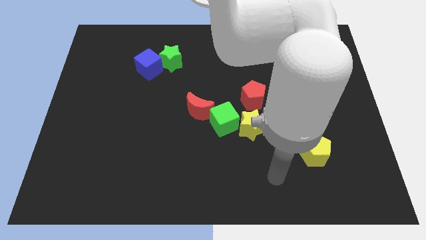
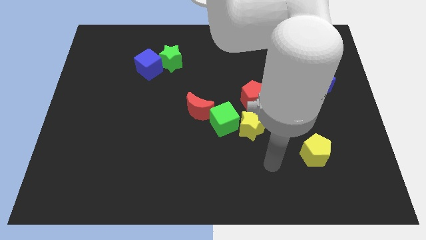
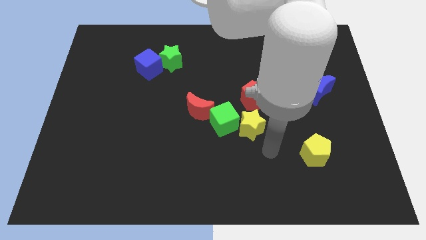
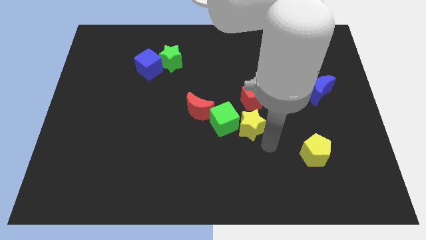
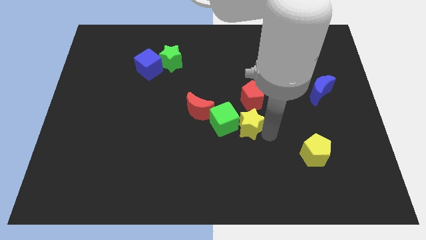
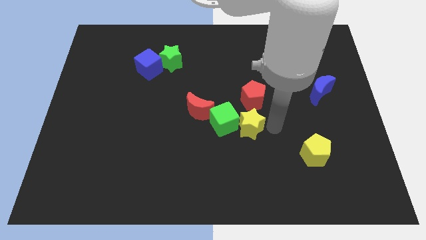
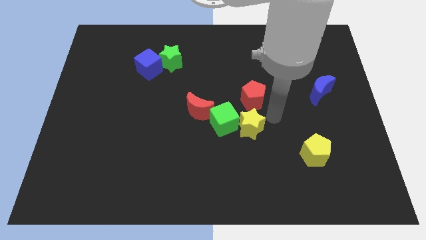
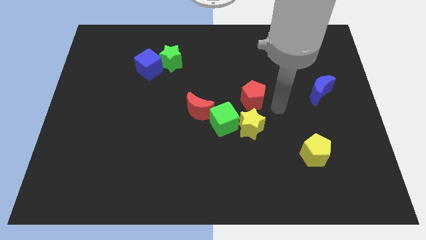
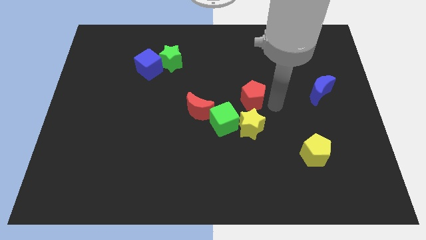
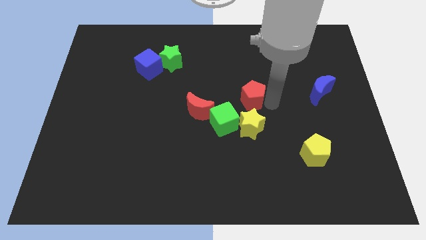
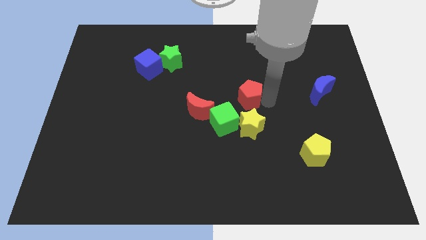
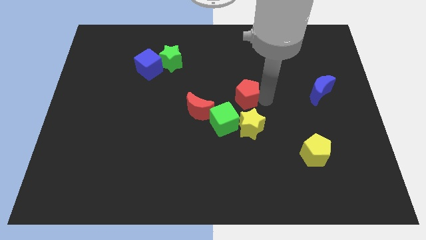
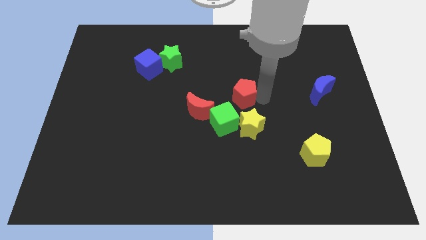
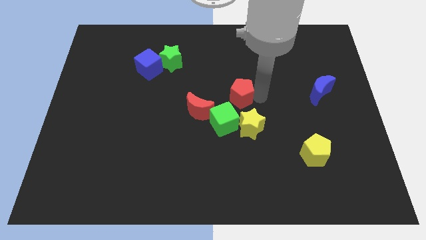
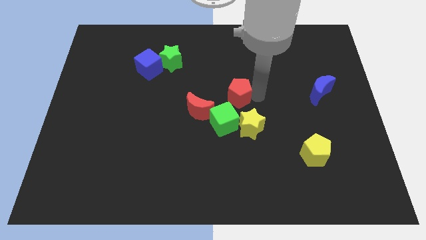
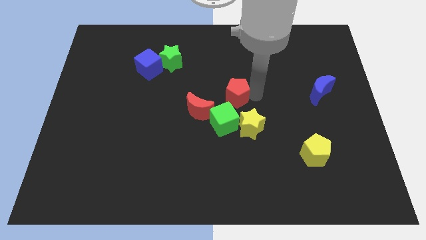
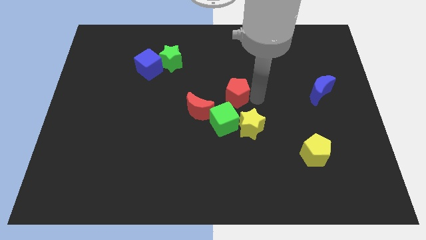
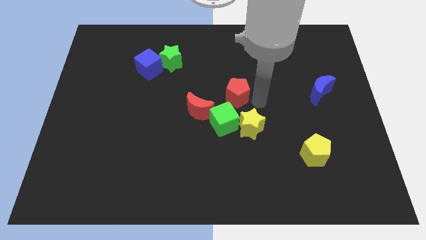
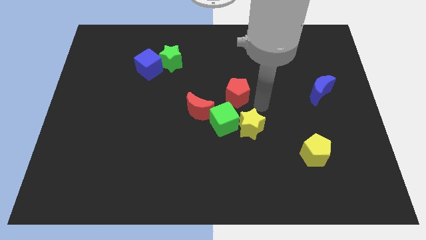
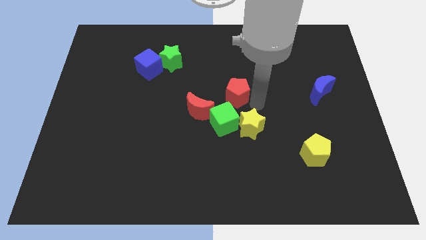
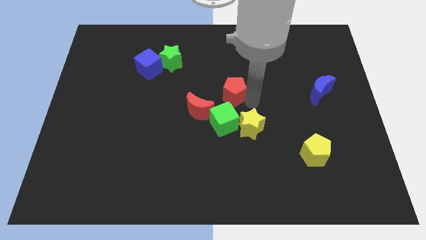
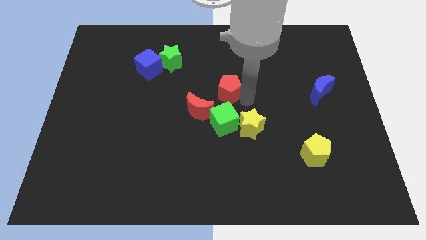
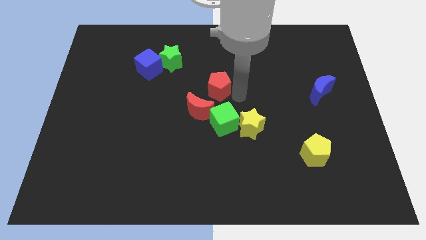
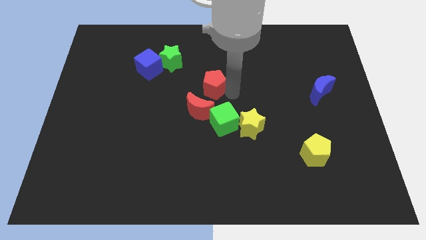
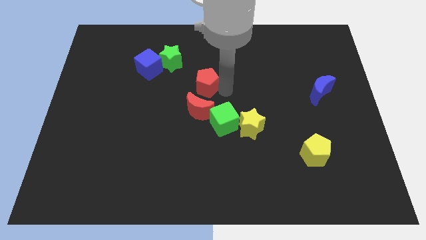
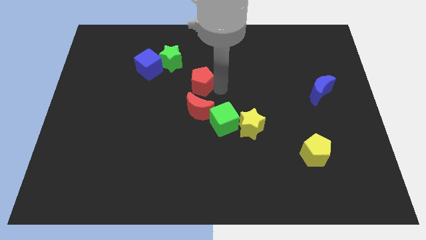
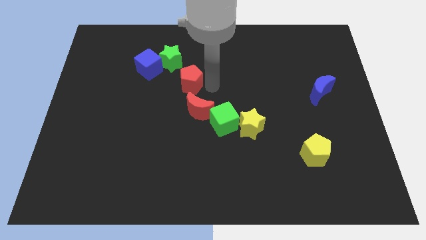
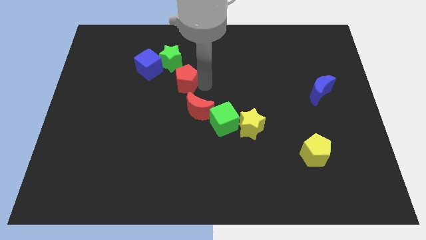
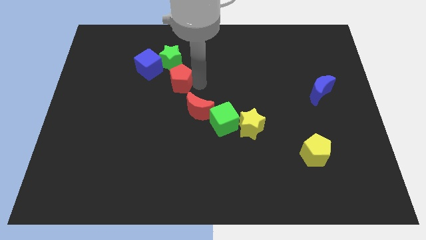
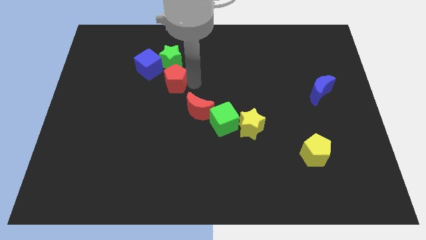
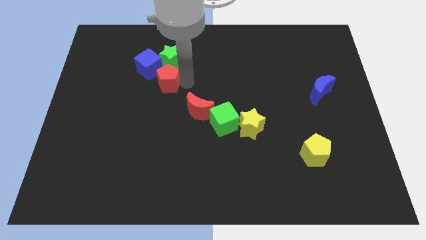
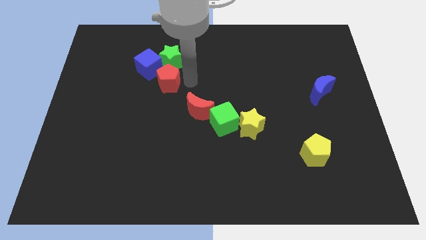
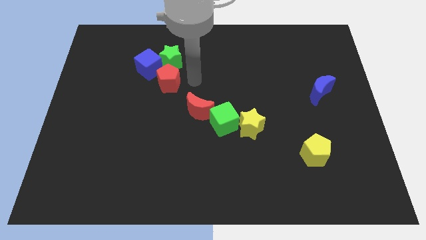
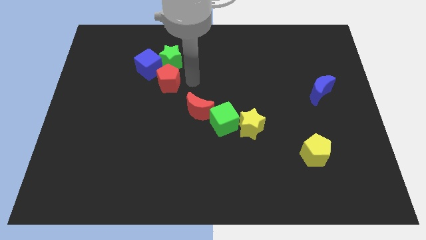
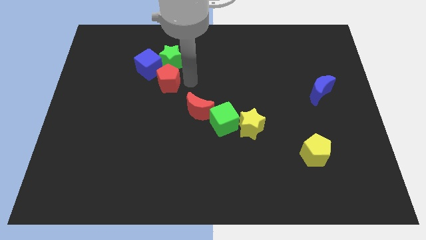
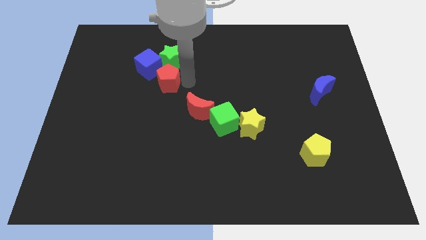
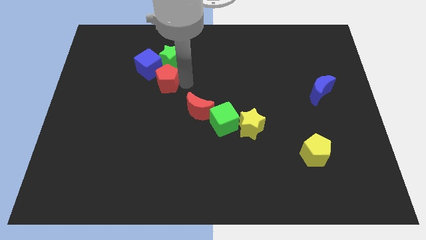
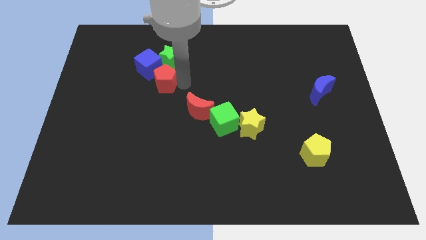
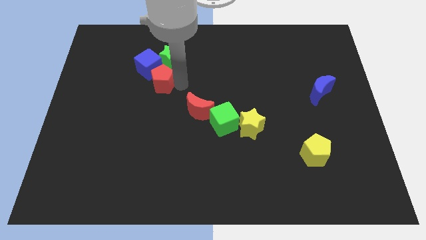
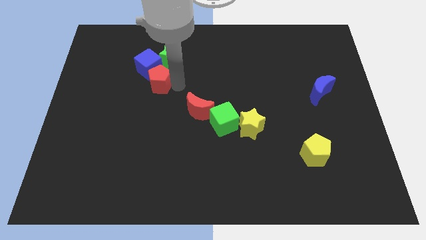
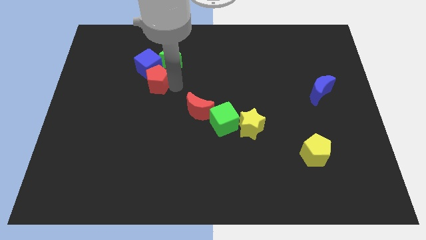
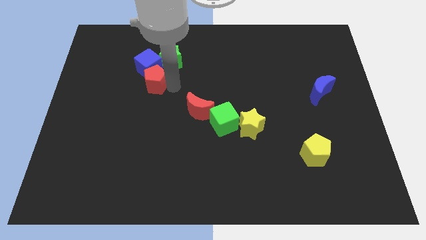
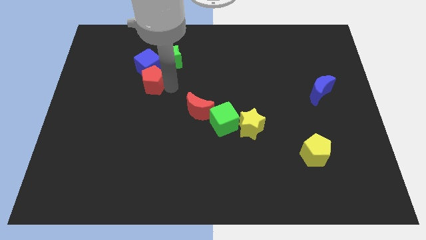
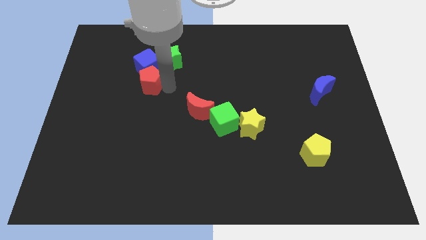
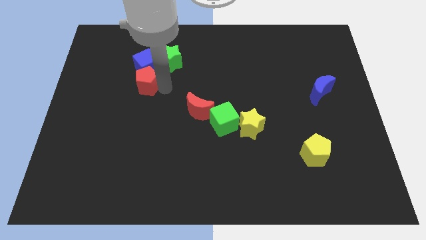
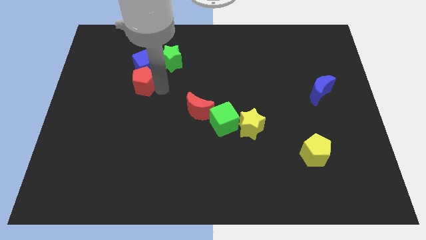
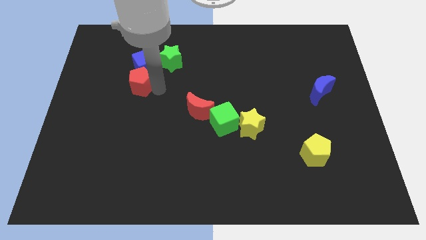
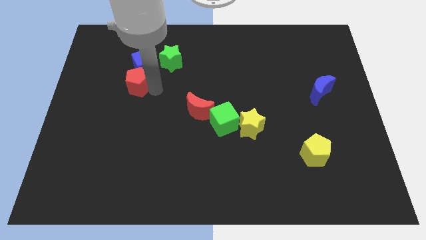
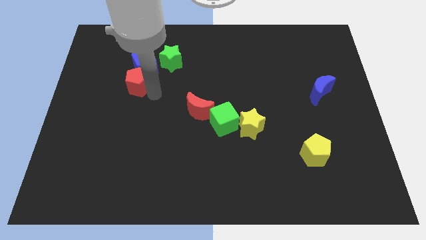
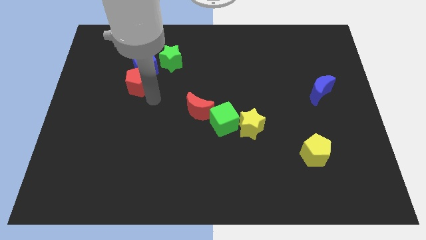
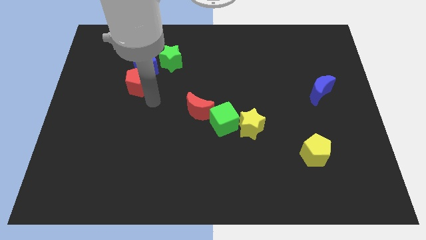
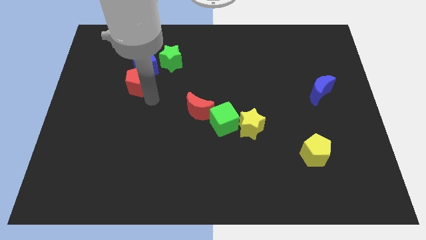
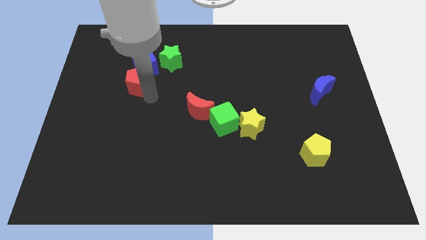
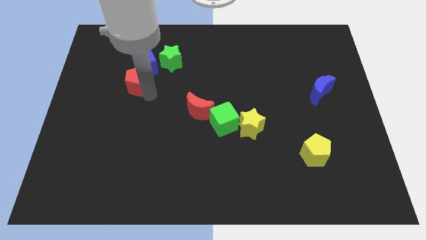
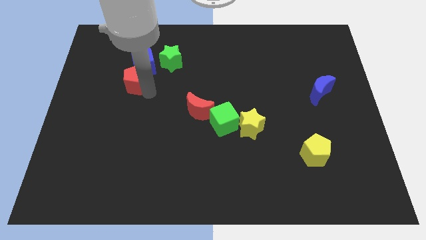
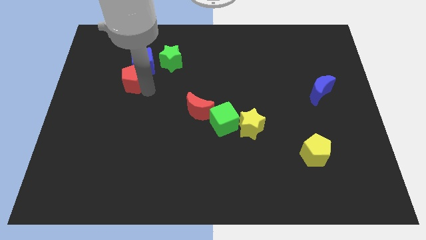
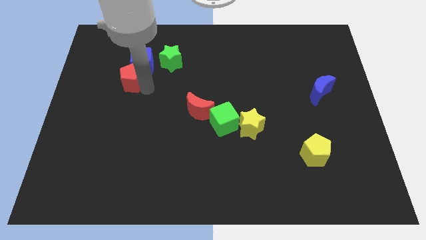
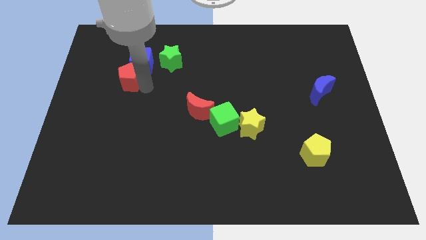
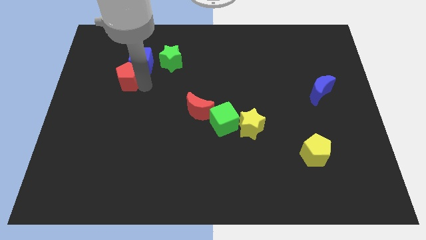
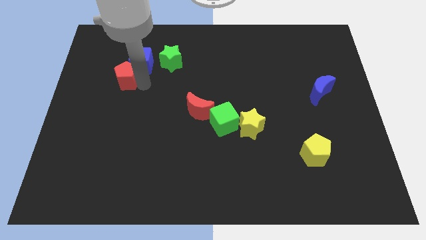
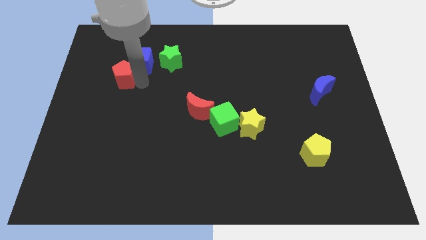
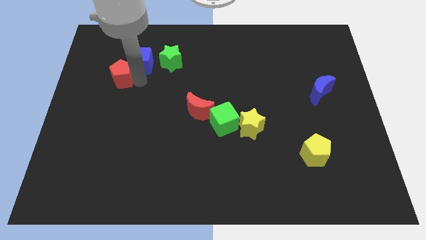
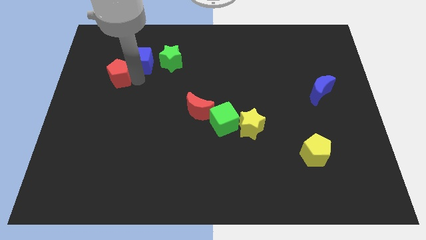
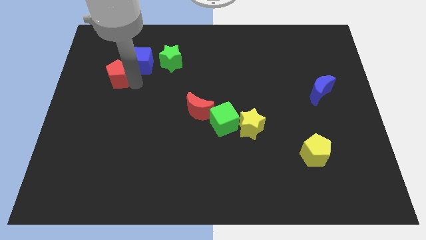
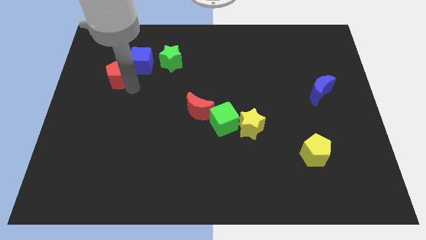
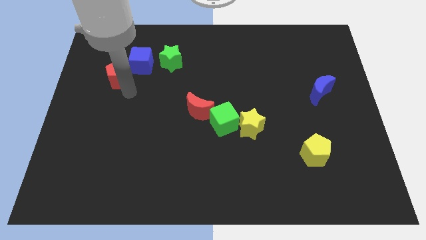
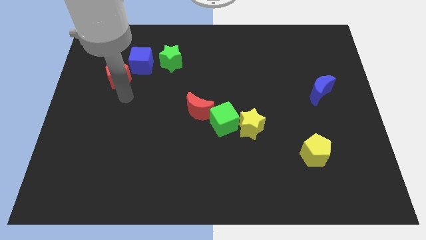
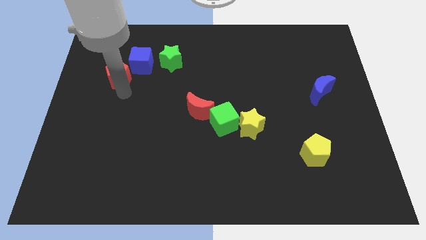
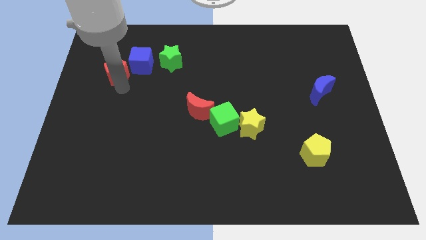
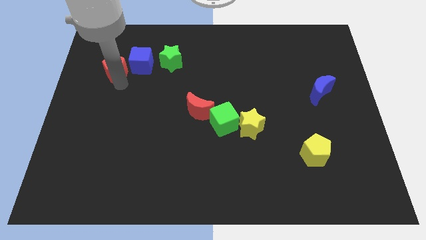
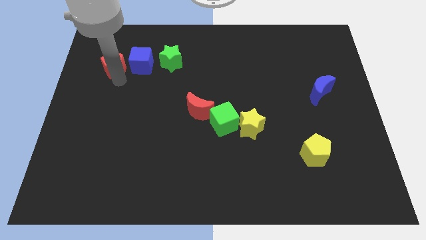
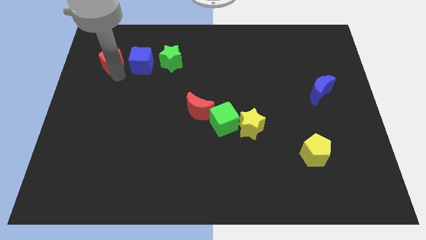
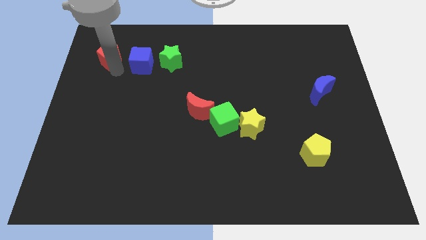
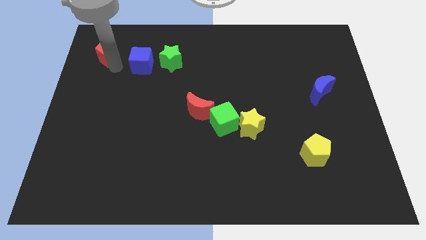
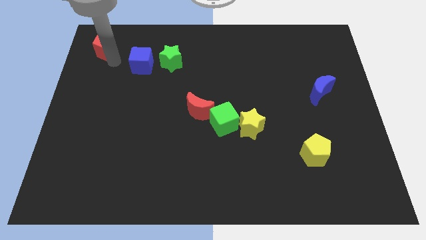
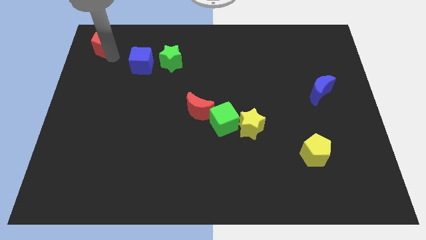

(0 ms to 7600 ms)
push the red pentagon to the top left
